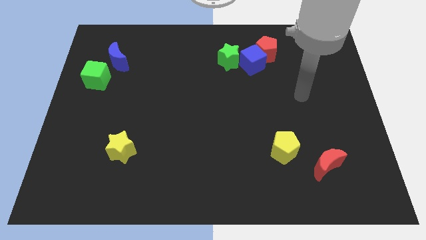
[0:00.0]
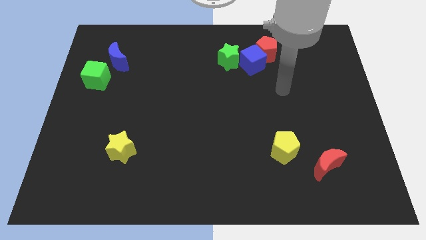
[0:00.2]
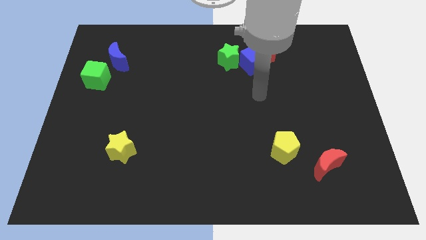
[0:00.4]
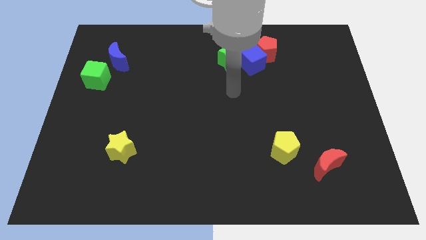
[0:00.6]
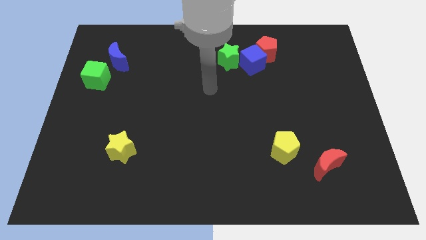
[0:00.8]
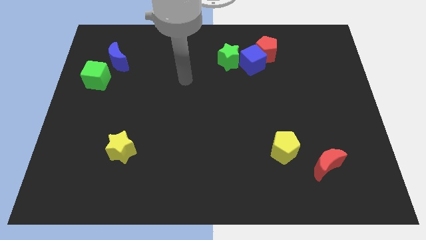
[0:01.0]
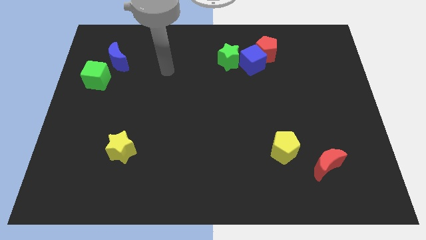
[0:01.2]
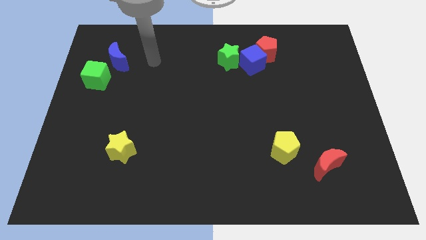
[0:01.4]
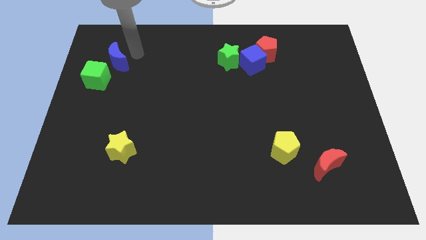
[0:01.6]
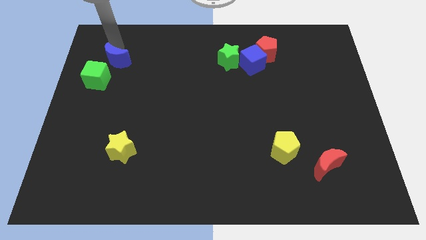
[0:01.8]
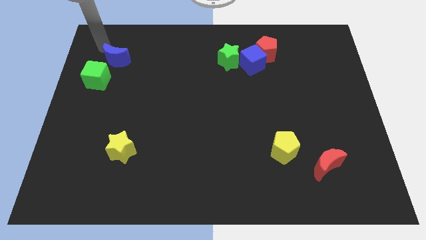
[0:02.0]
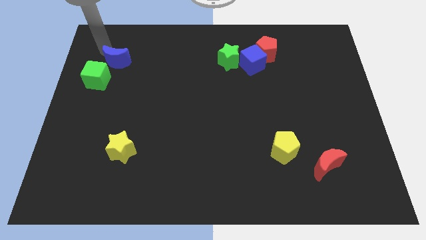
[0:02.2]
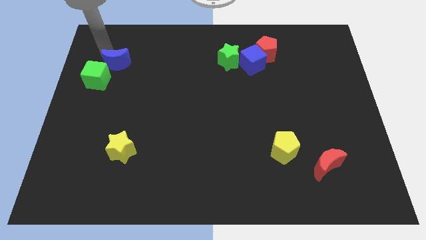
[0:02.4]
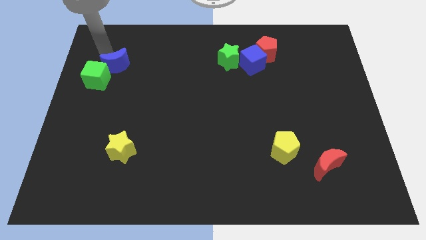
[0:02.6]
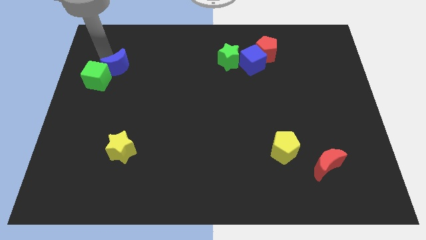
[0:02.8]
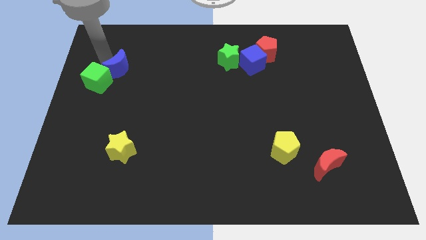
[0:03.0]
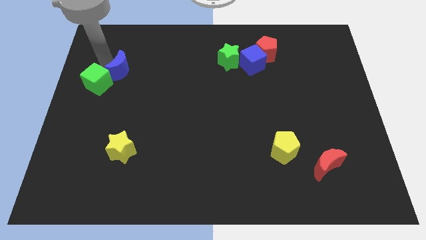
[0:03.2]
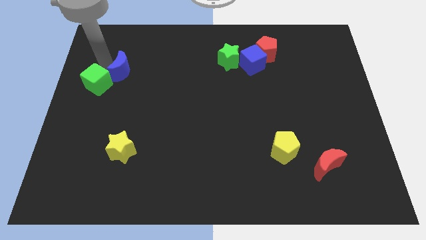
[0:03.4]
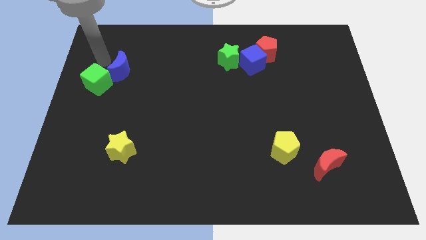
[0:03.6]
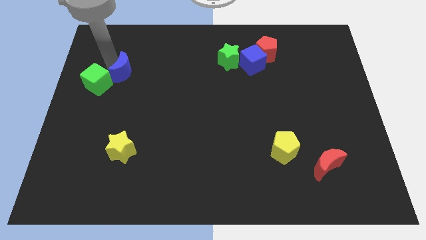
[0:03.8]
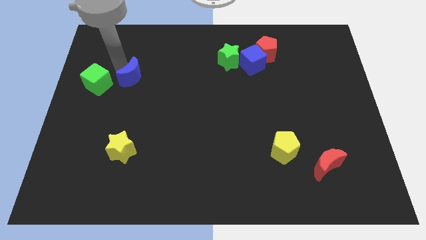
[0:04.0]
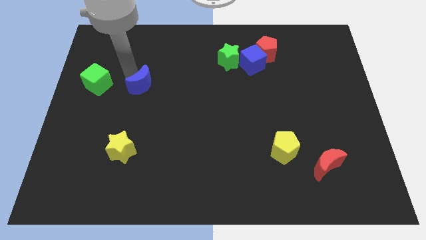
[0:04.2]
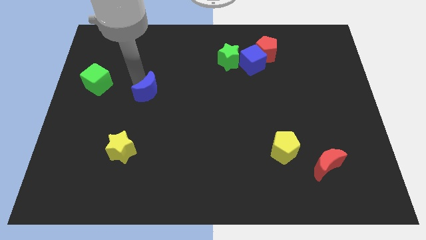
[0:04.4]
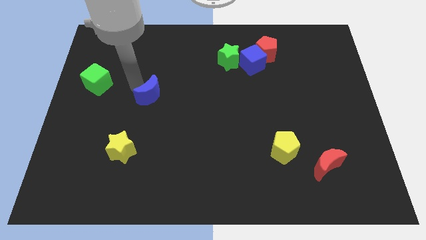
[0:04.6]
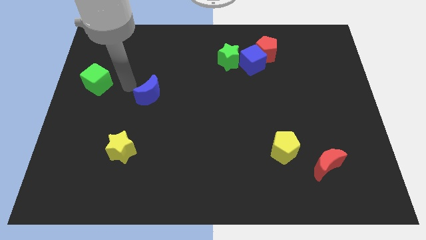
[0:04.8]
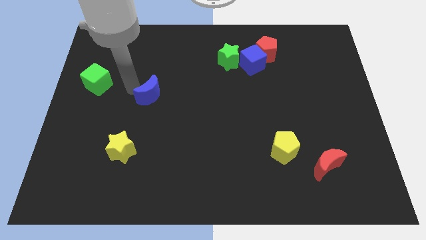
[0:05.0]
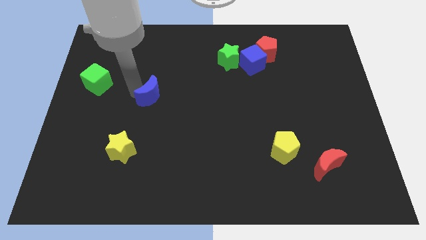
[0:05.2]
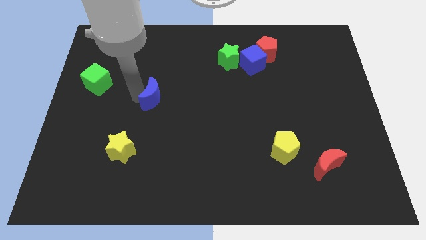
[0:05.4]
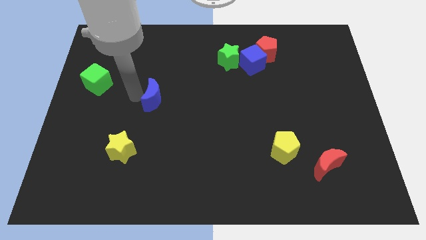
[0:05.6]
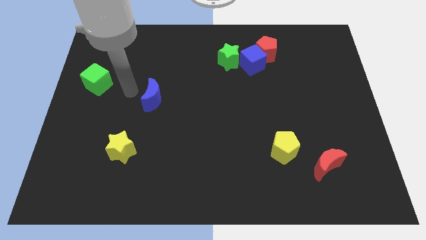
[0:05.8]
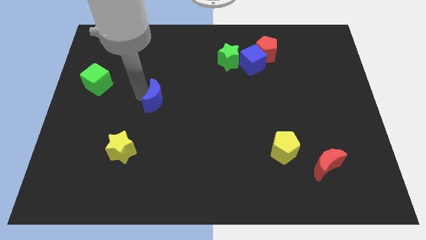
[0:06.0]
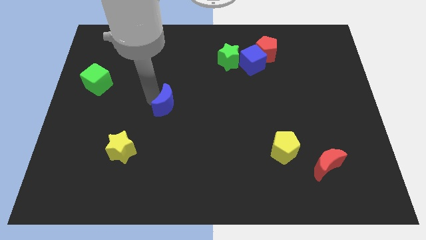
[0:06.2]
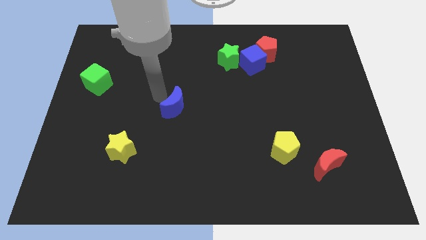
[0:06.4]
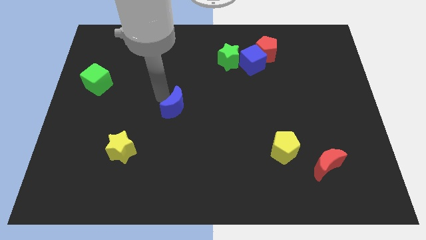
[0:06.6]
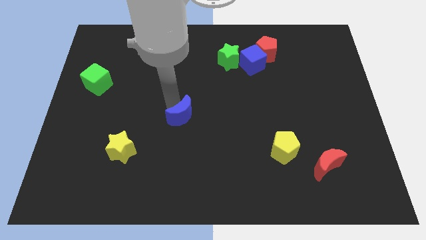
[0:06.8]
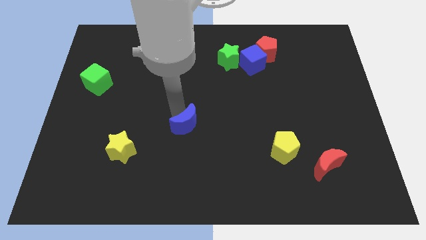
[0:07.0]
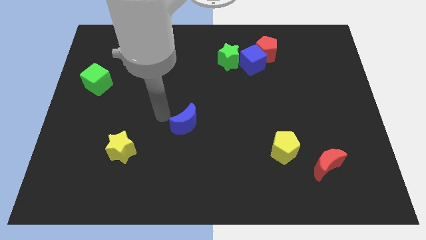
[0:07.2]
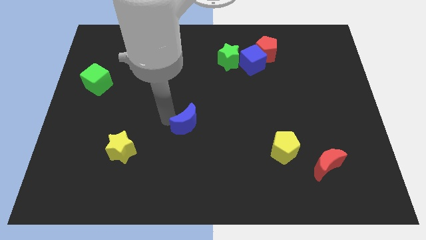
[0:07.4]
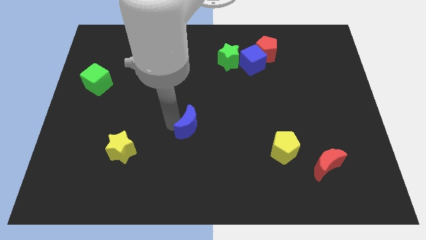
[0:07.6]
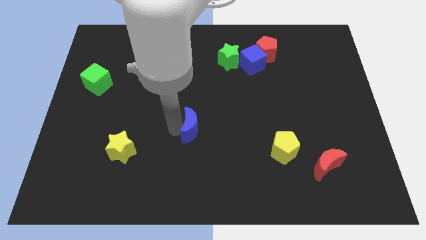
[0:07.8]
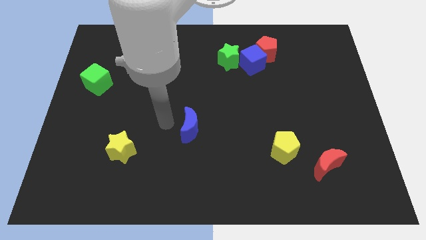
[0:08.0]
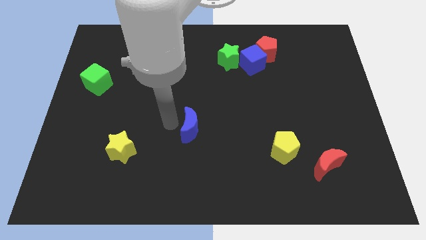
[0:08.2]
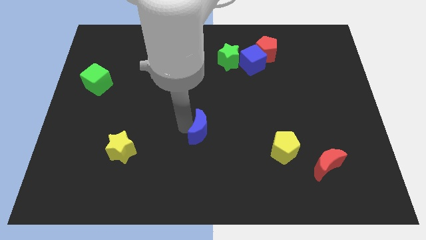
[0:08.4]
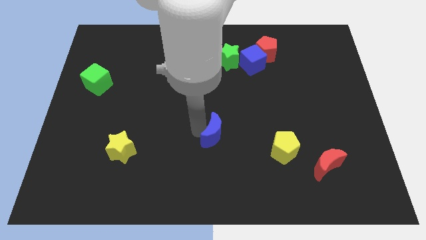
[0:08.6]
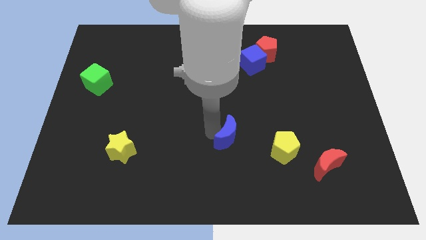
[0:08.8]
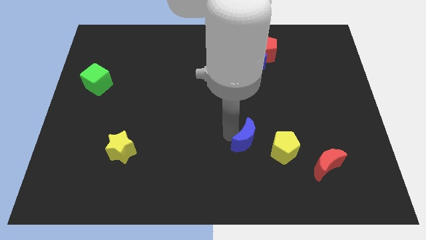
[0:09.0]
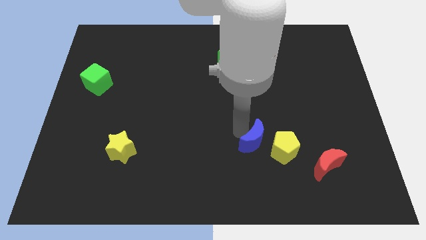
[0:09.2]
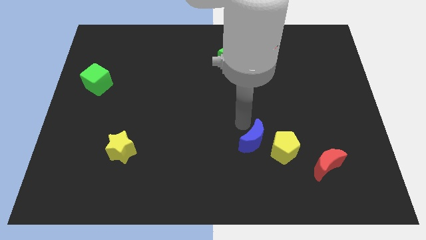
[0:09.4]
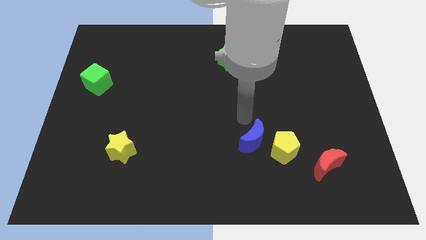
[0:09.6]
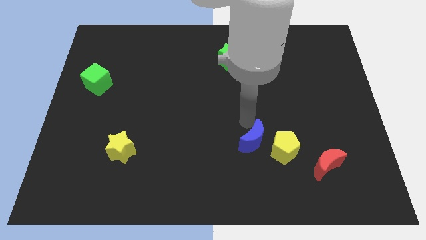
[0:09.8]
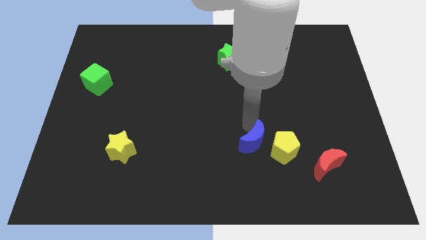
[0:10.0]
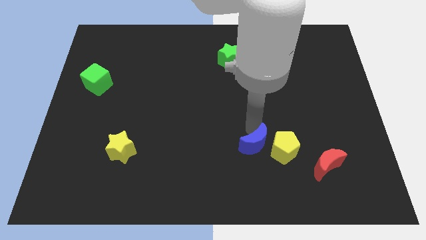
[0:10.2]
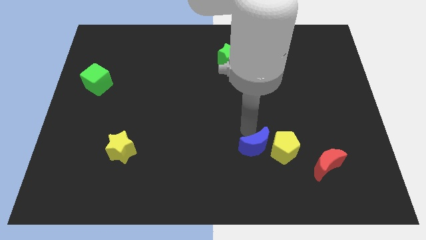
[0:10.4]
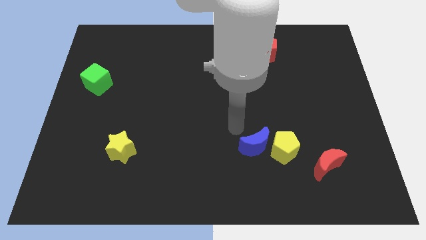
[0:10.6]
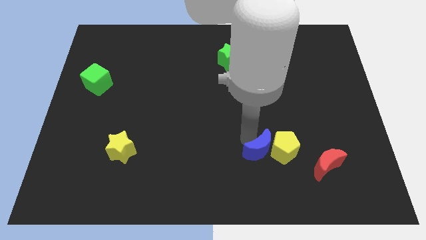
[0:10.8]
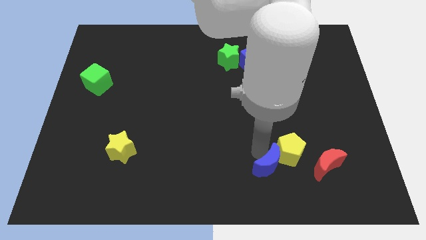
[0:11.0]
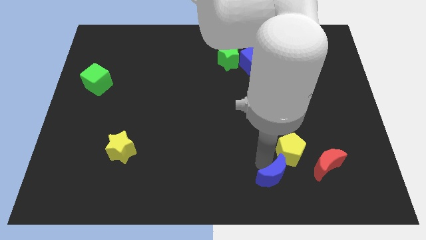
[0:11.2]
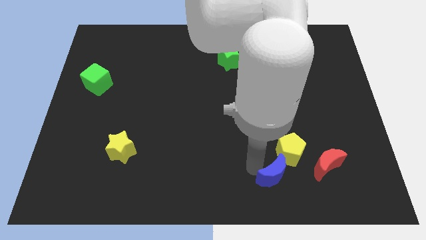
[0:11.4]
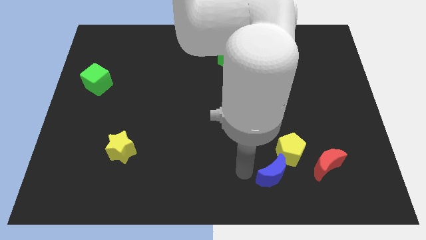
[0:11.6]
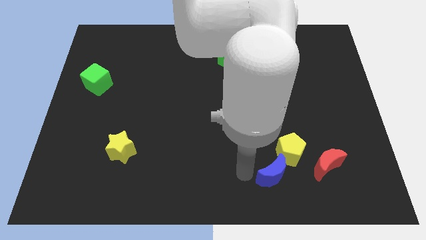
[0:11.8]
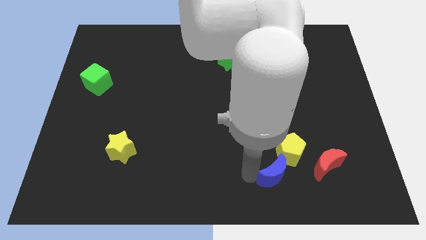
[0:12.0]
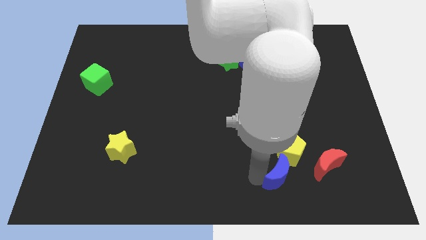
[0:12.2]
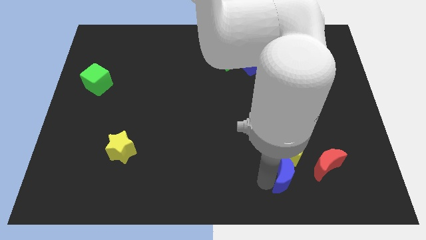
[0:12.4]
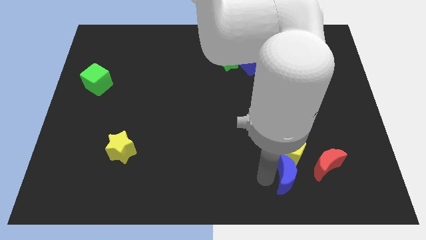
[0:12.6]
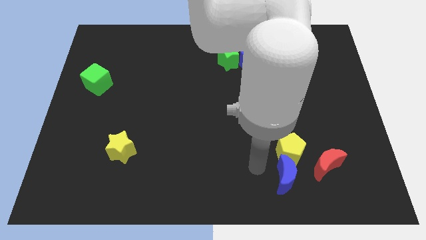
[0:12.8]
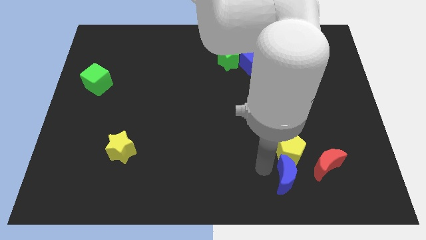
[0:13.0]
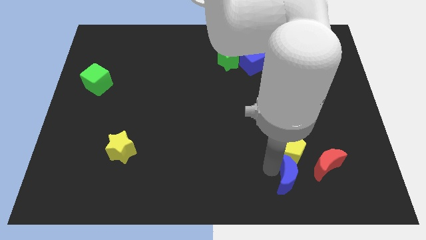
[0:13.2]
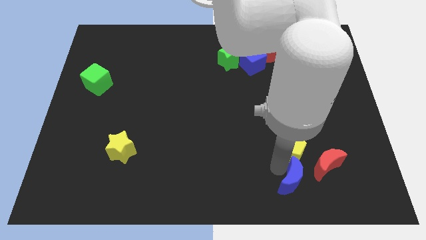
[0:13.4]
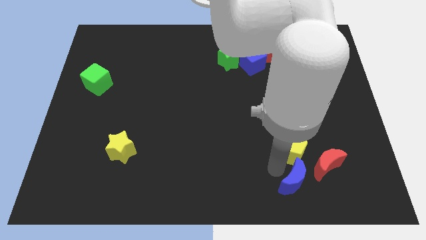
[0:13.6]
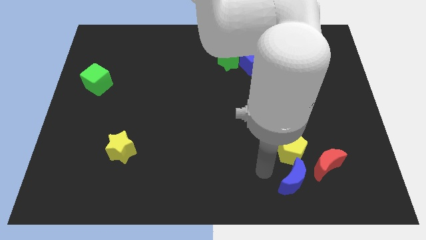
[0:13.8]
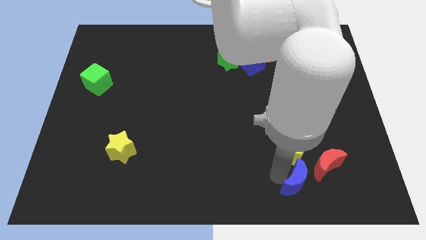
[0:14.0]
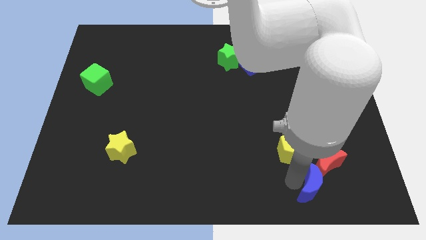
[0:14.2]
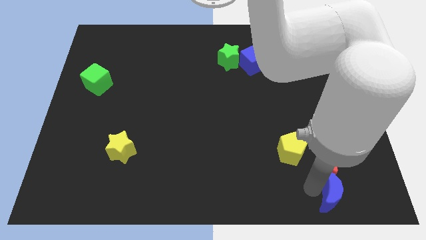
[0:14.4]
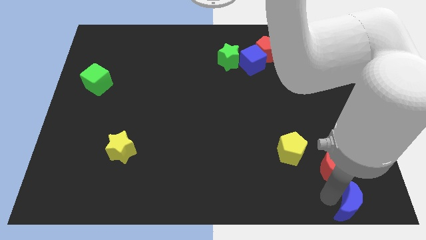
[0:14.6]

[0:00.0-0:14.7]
push the blue moon to the bottom right
